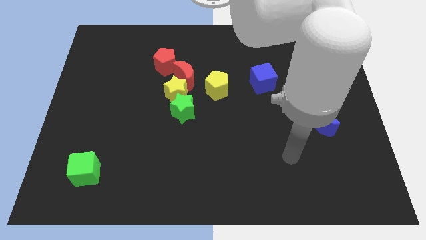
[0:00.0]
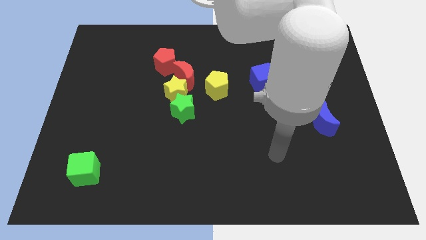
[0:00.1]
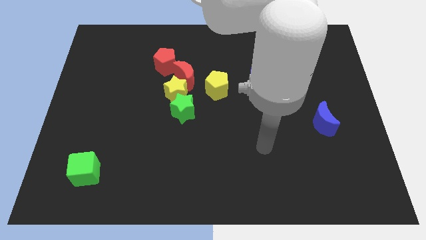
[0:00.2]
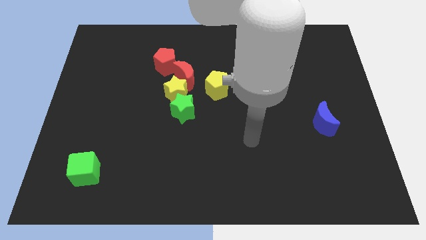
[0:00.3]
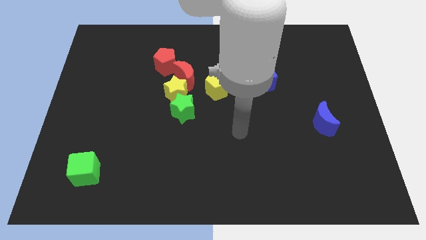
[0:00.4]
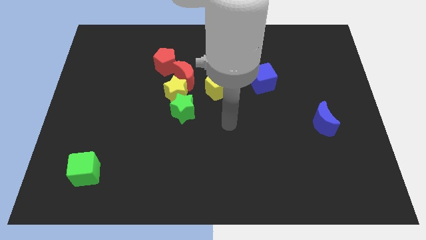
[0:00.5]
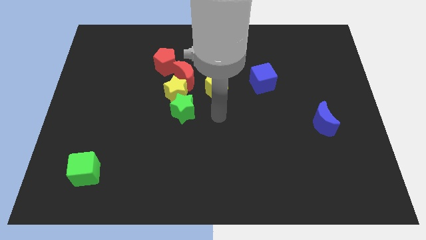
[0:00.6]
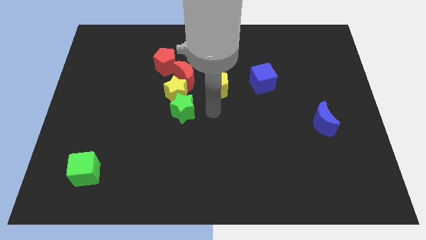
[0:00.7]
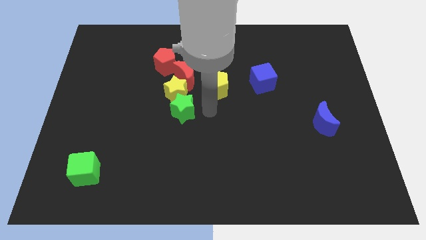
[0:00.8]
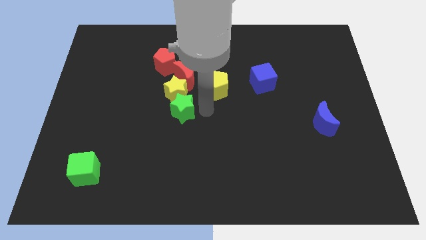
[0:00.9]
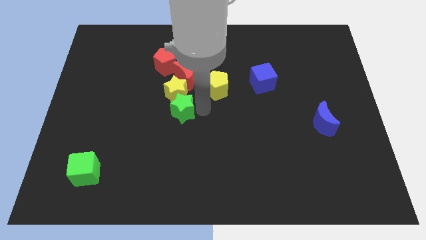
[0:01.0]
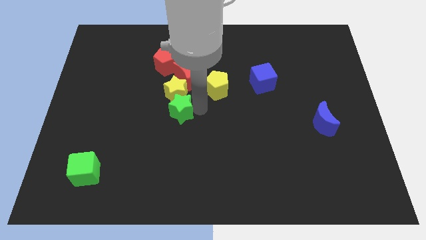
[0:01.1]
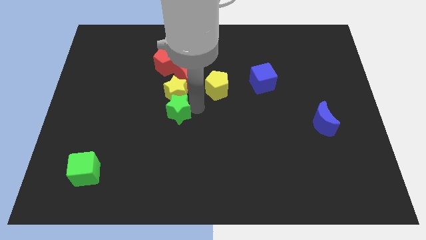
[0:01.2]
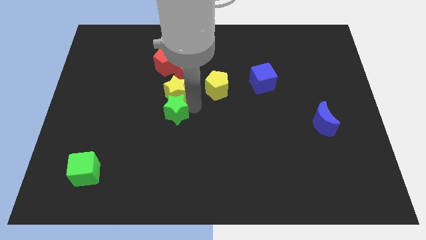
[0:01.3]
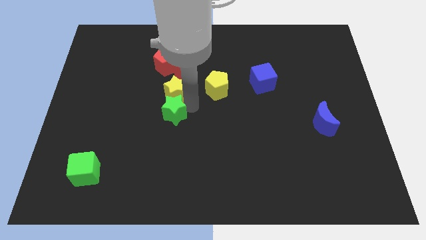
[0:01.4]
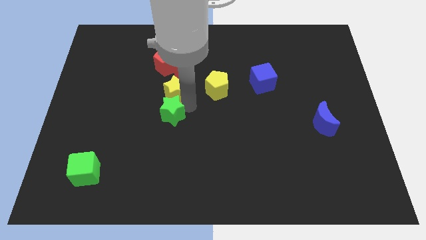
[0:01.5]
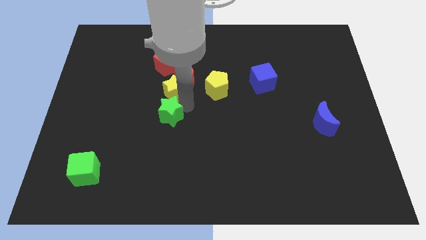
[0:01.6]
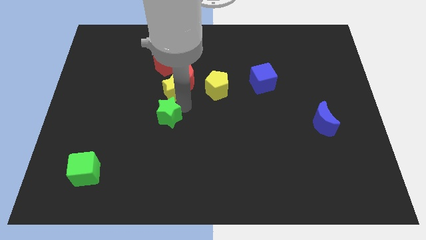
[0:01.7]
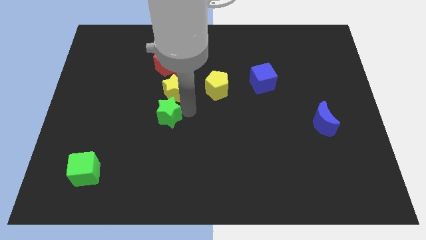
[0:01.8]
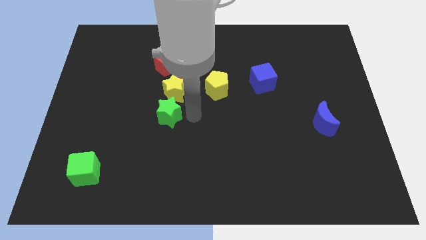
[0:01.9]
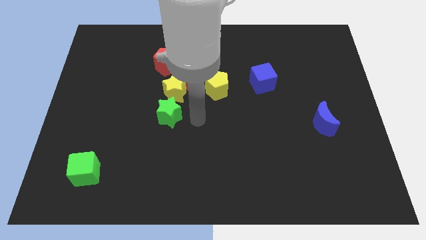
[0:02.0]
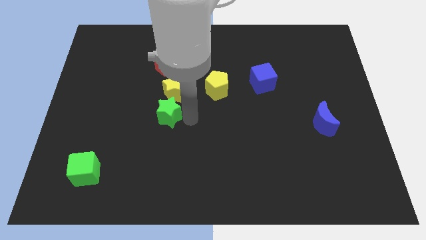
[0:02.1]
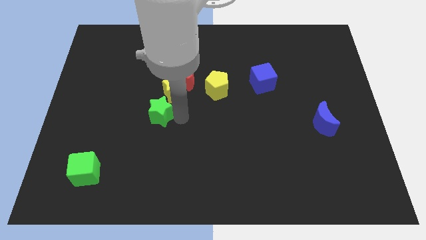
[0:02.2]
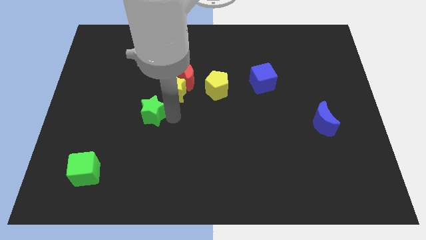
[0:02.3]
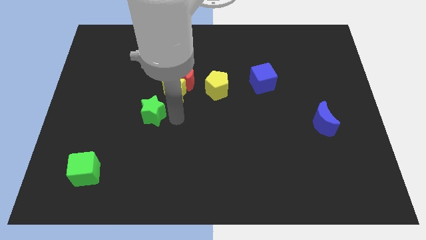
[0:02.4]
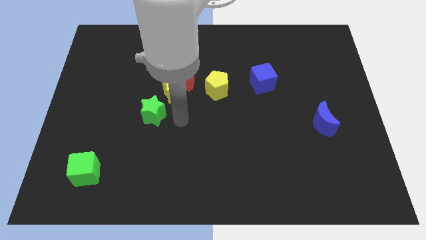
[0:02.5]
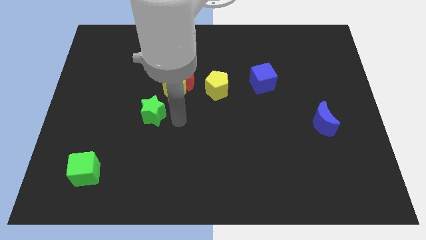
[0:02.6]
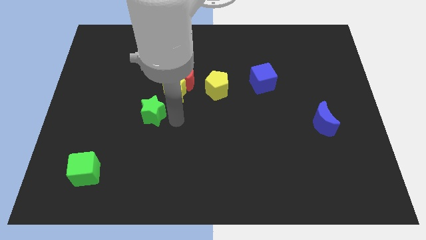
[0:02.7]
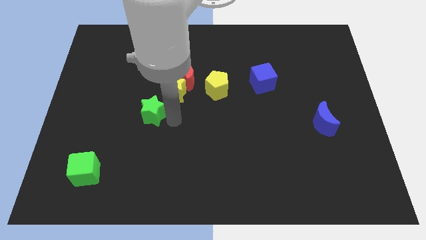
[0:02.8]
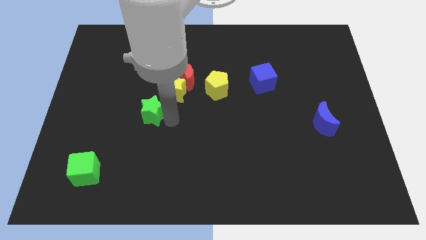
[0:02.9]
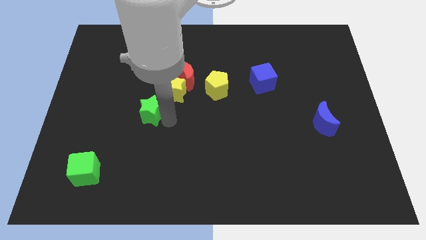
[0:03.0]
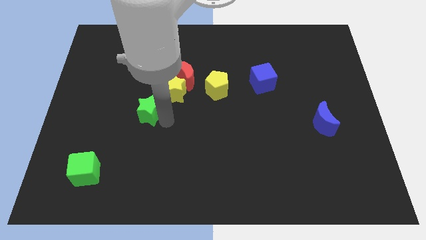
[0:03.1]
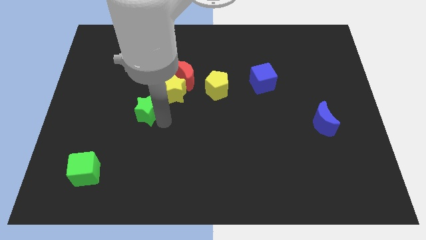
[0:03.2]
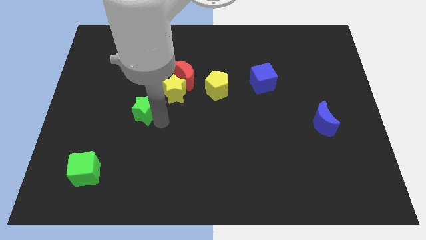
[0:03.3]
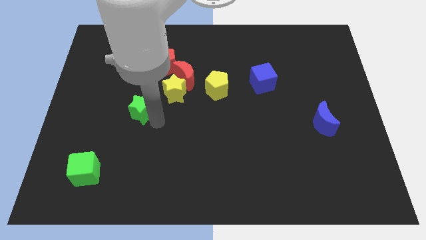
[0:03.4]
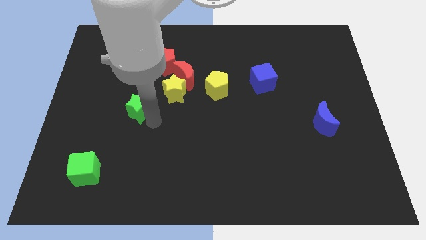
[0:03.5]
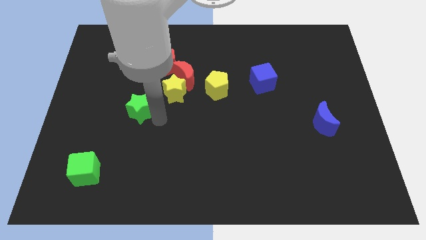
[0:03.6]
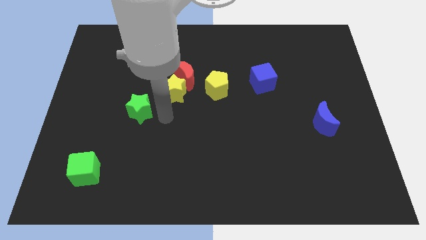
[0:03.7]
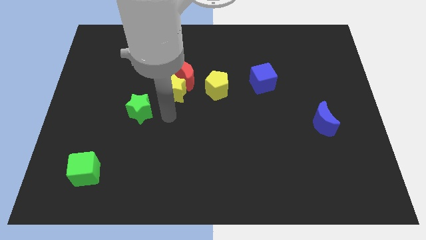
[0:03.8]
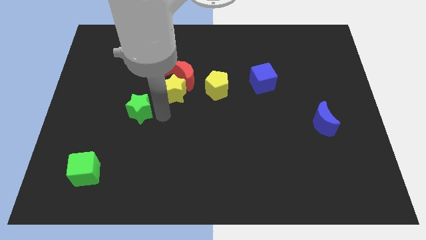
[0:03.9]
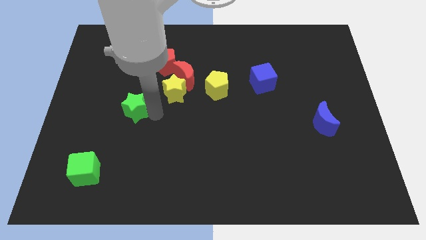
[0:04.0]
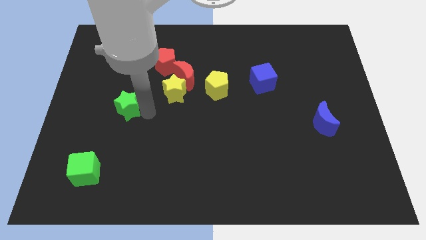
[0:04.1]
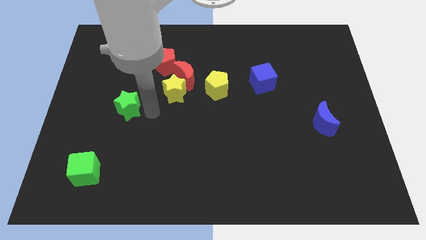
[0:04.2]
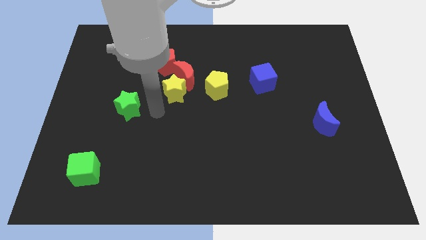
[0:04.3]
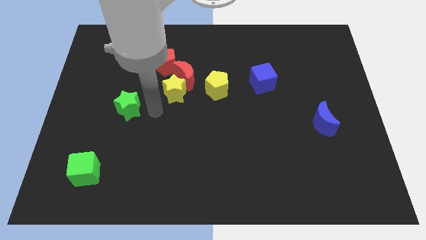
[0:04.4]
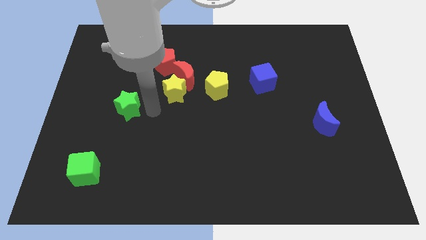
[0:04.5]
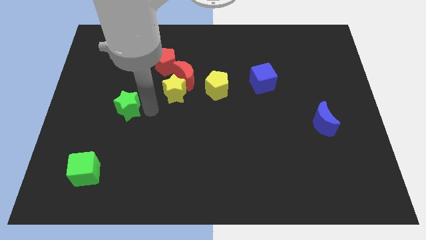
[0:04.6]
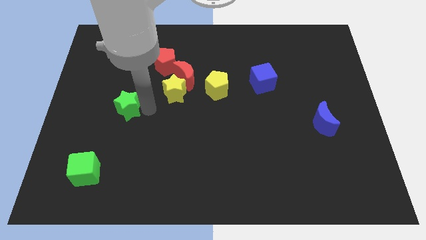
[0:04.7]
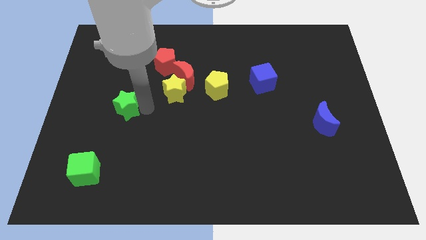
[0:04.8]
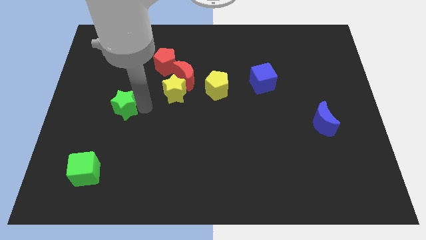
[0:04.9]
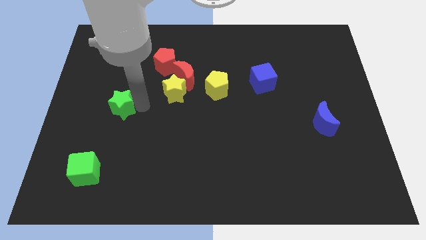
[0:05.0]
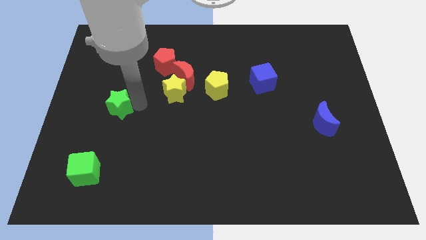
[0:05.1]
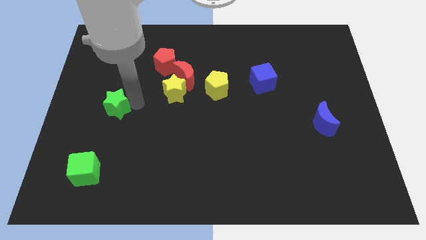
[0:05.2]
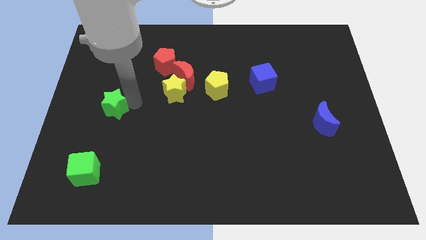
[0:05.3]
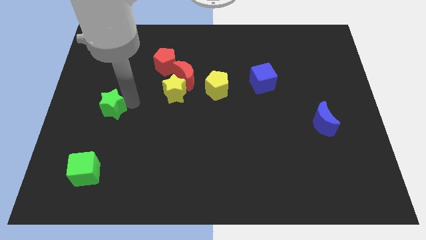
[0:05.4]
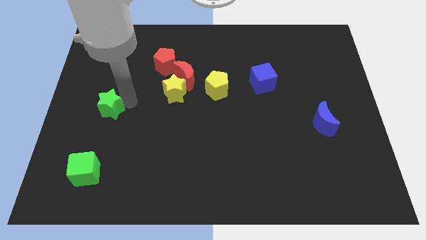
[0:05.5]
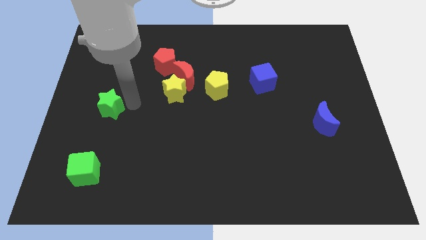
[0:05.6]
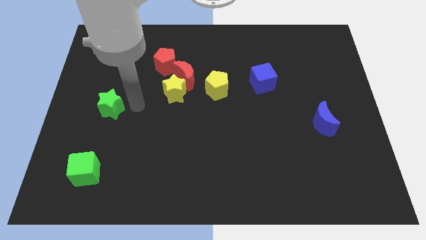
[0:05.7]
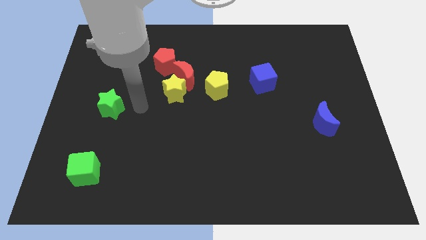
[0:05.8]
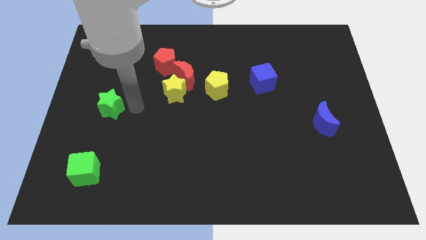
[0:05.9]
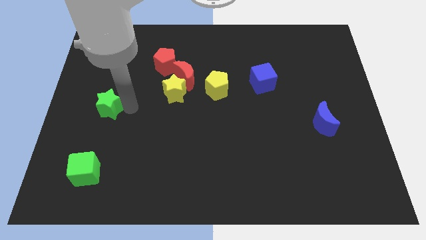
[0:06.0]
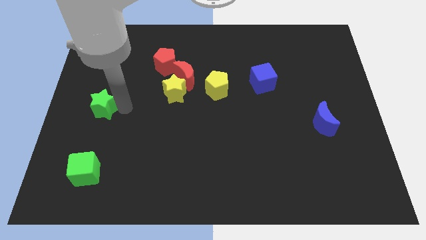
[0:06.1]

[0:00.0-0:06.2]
push the green star to the center left

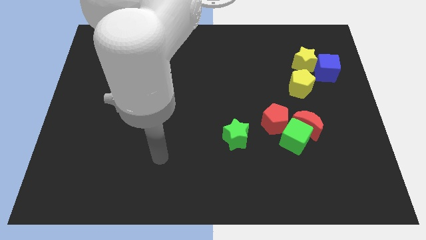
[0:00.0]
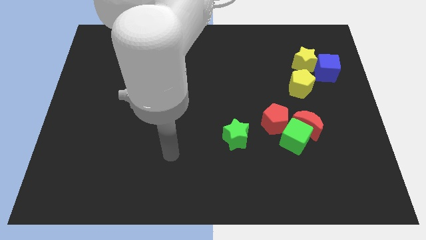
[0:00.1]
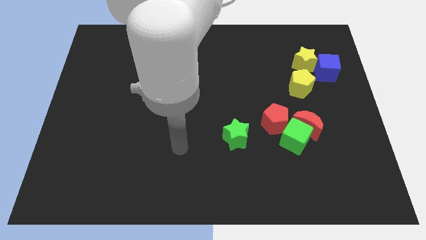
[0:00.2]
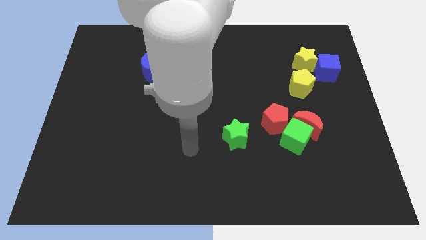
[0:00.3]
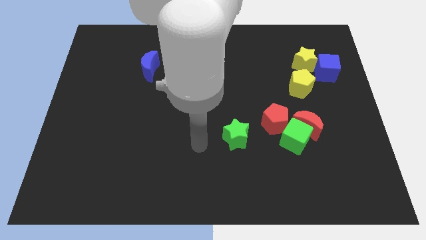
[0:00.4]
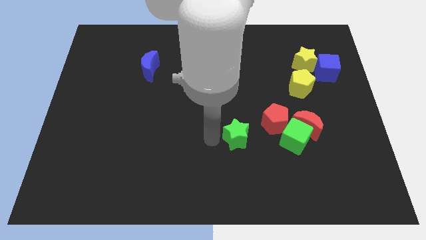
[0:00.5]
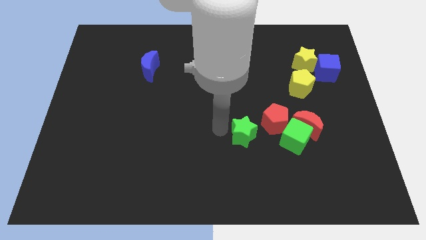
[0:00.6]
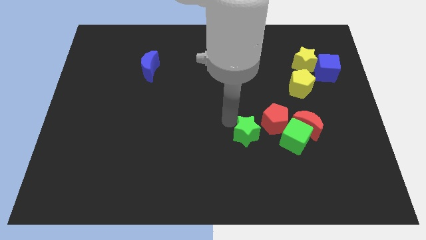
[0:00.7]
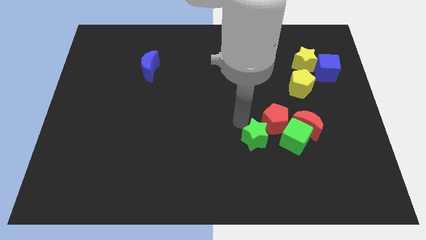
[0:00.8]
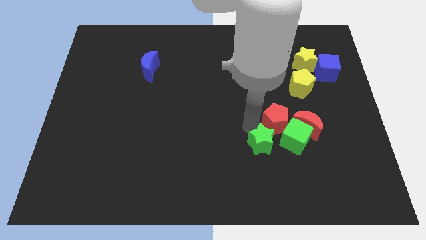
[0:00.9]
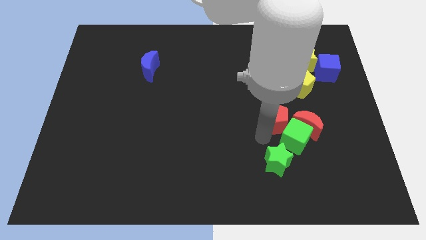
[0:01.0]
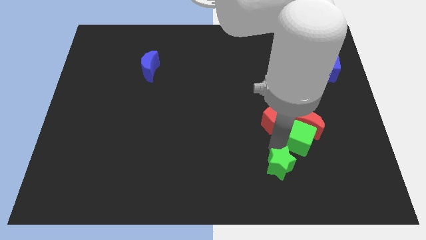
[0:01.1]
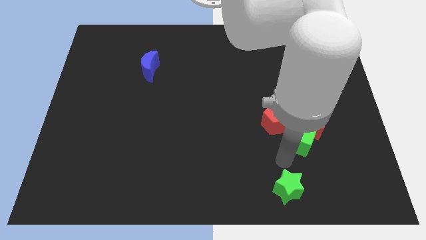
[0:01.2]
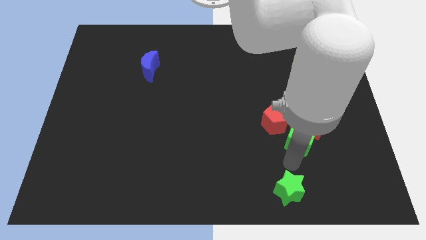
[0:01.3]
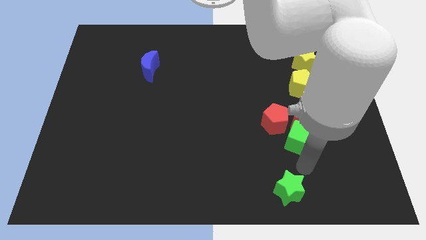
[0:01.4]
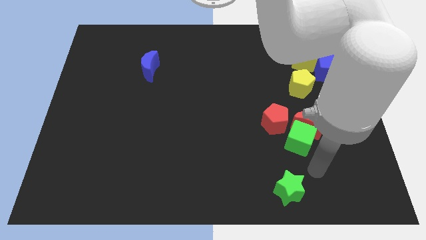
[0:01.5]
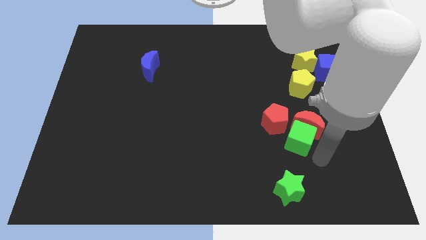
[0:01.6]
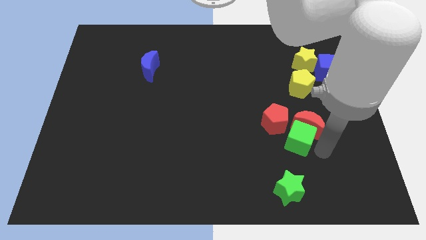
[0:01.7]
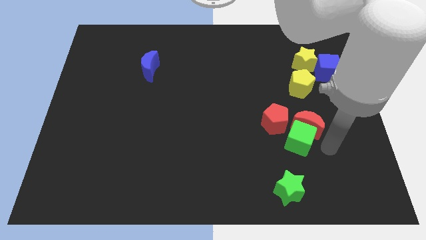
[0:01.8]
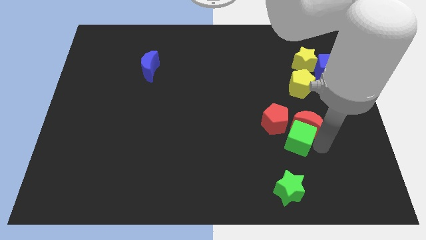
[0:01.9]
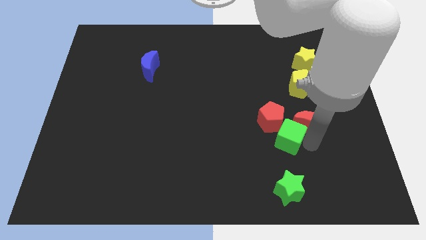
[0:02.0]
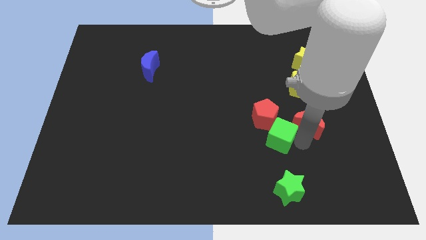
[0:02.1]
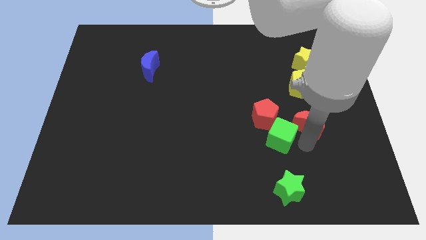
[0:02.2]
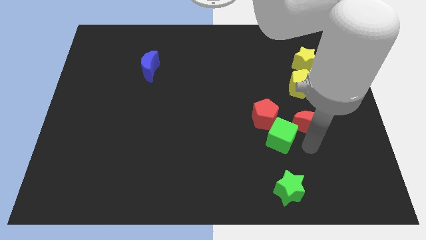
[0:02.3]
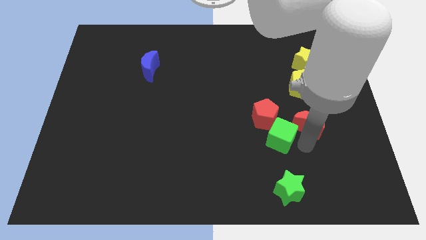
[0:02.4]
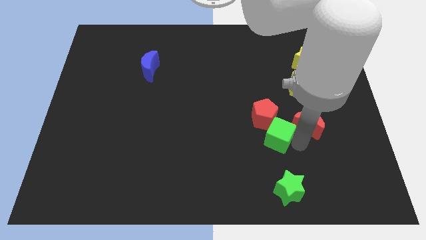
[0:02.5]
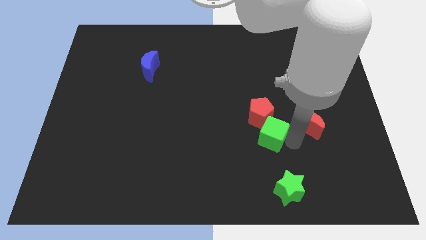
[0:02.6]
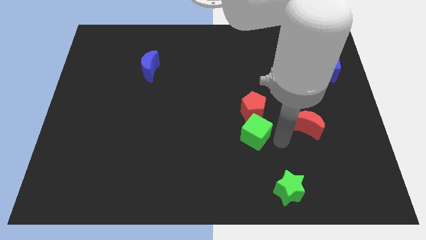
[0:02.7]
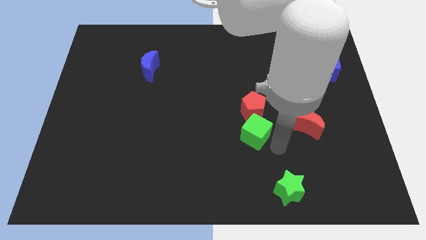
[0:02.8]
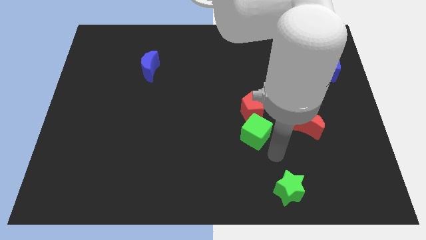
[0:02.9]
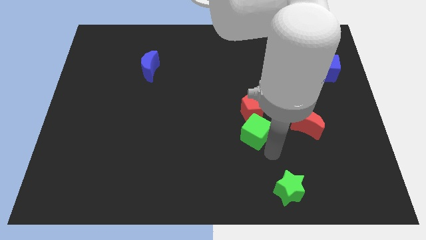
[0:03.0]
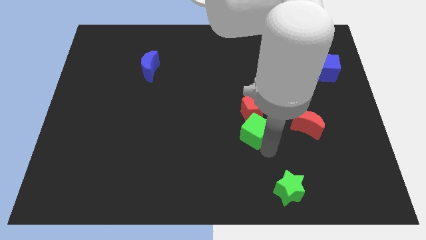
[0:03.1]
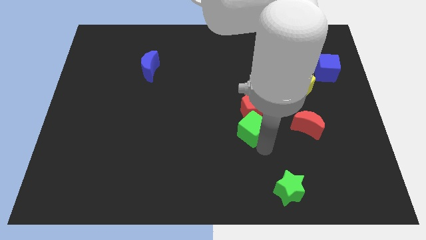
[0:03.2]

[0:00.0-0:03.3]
put the green cube to the middle
